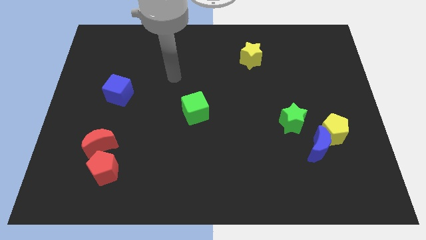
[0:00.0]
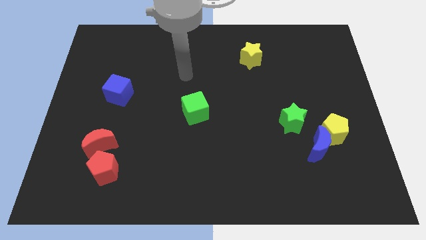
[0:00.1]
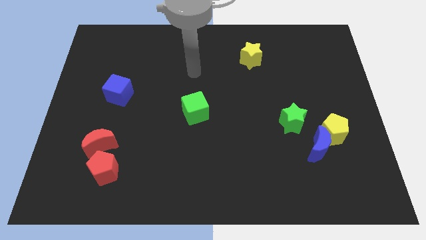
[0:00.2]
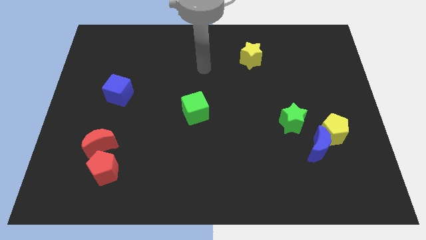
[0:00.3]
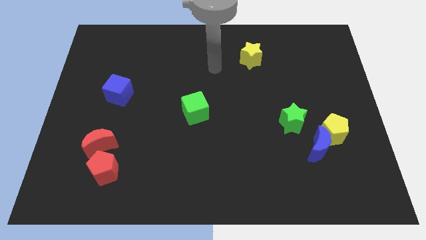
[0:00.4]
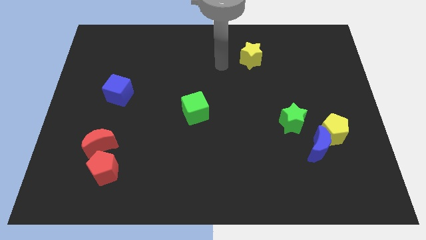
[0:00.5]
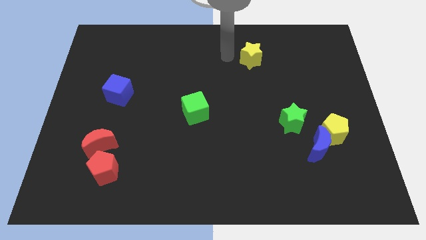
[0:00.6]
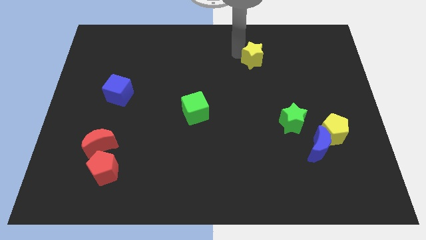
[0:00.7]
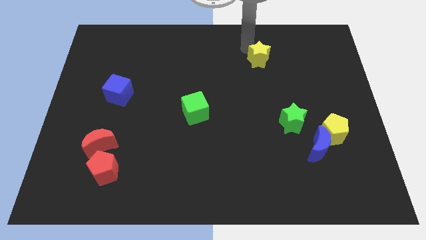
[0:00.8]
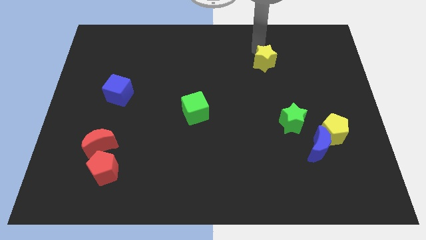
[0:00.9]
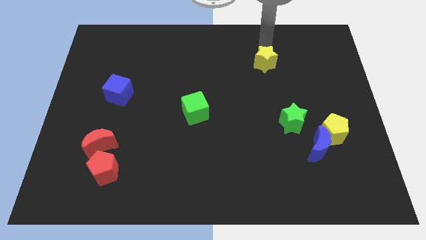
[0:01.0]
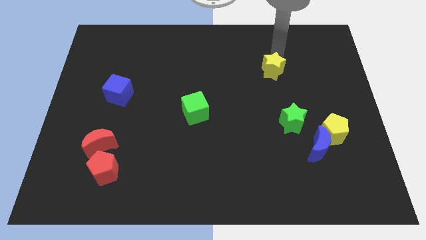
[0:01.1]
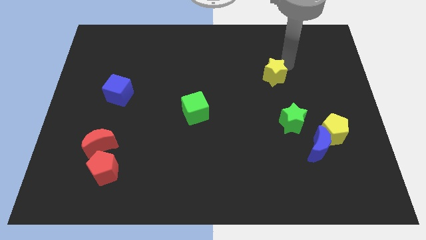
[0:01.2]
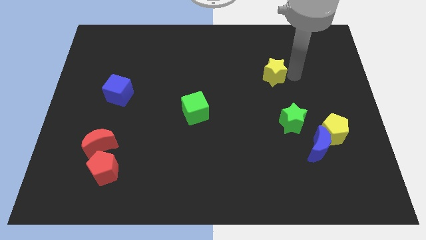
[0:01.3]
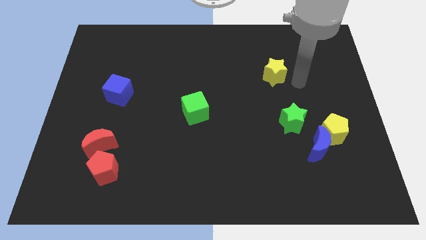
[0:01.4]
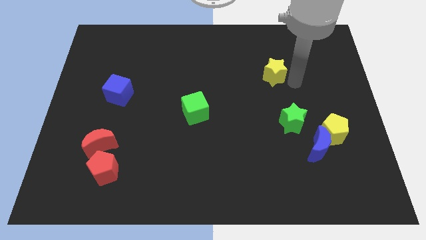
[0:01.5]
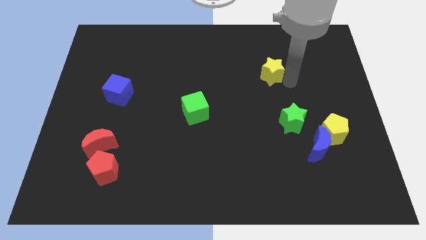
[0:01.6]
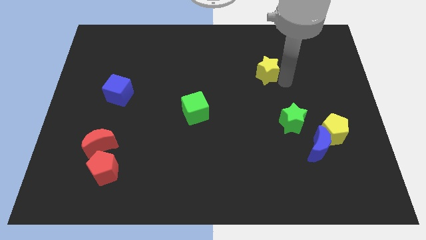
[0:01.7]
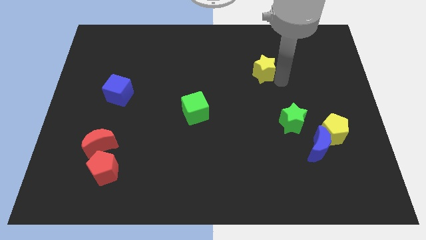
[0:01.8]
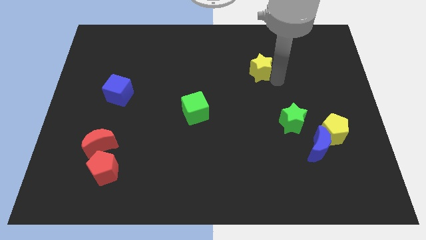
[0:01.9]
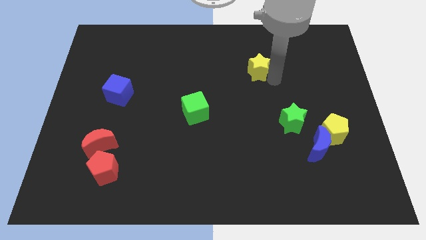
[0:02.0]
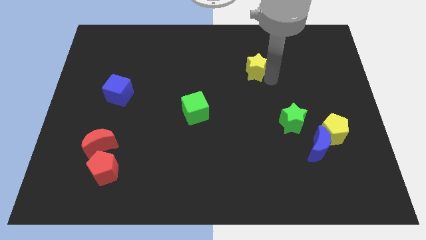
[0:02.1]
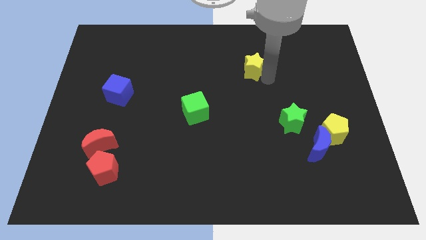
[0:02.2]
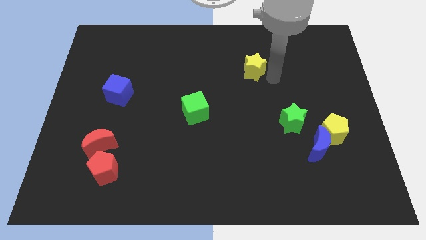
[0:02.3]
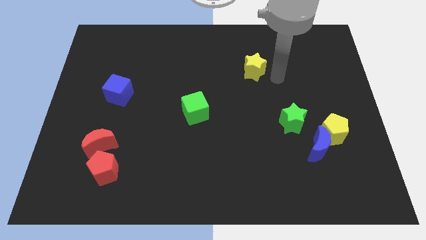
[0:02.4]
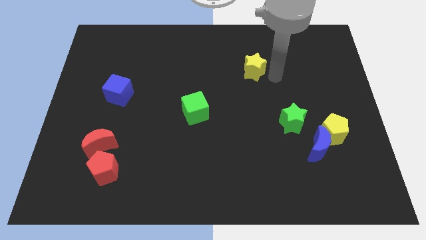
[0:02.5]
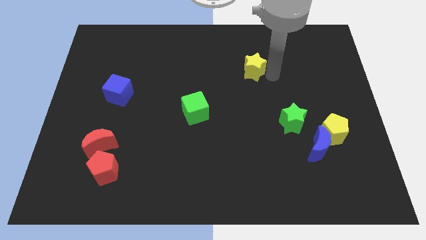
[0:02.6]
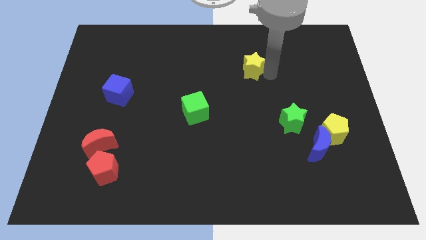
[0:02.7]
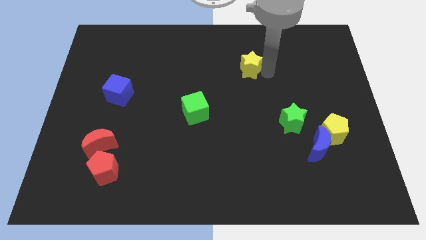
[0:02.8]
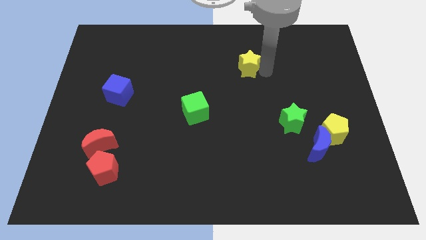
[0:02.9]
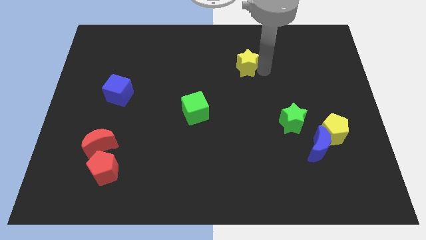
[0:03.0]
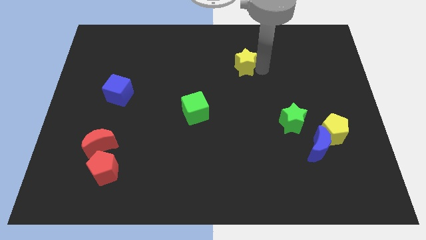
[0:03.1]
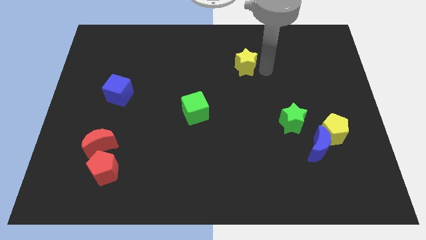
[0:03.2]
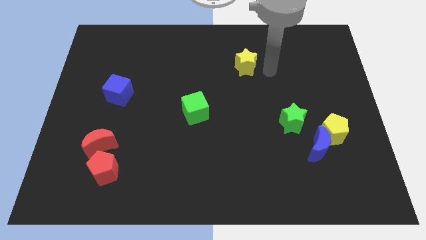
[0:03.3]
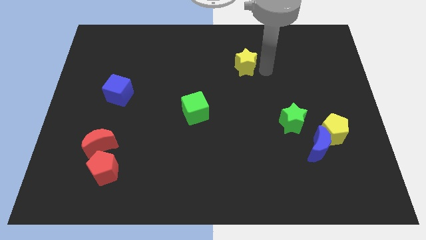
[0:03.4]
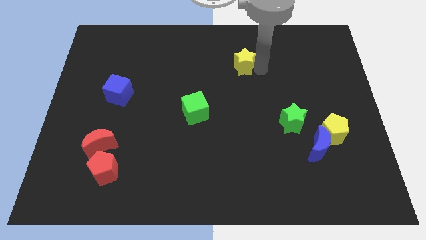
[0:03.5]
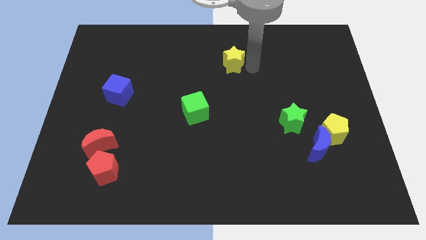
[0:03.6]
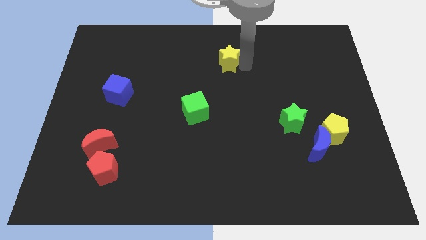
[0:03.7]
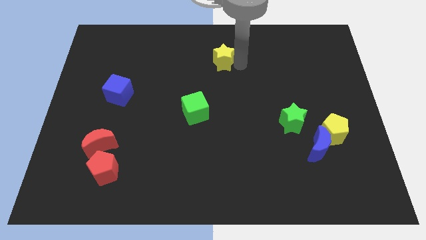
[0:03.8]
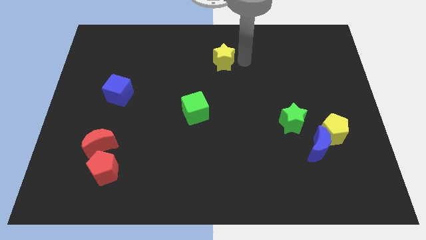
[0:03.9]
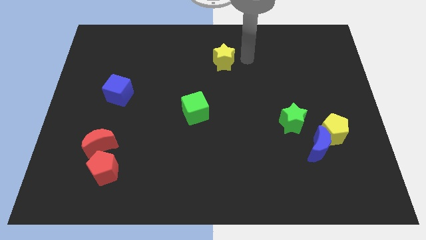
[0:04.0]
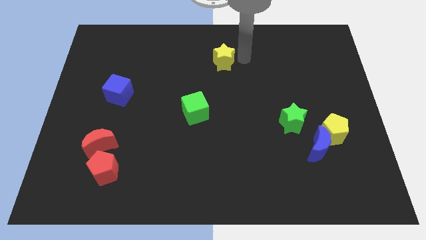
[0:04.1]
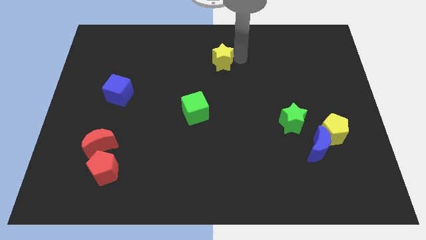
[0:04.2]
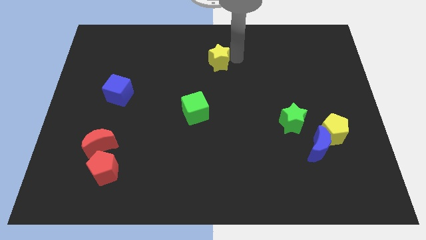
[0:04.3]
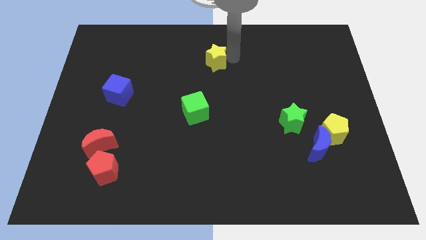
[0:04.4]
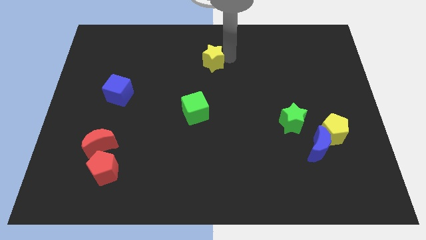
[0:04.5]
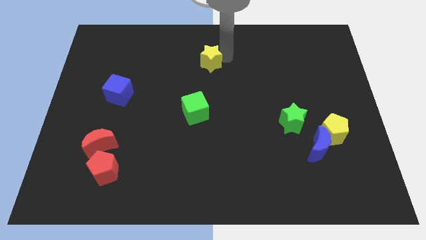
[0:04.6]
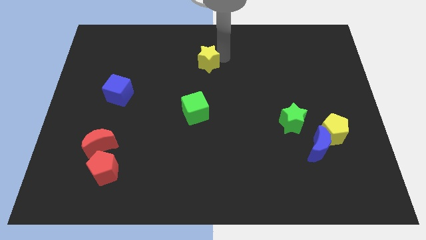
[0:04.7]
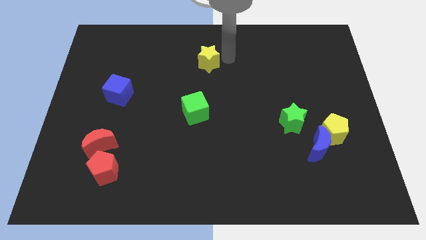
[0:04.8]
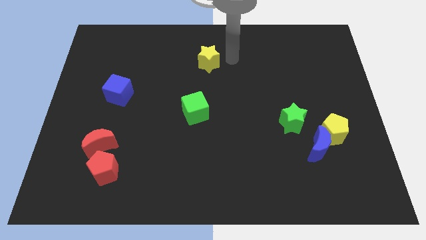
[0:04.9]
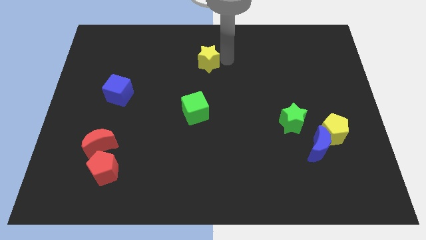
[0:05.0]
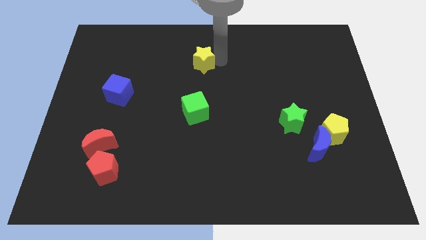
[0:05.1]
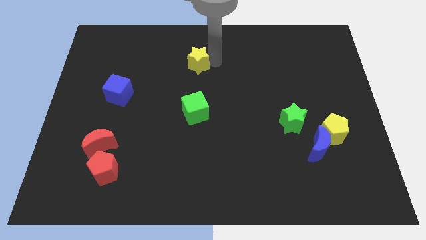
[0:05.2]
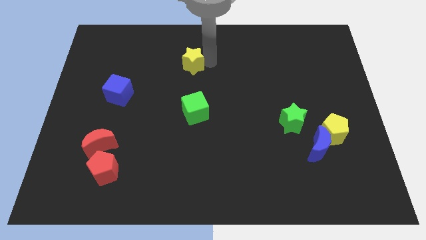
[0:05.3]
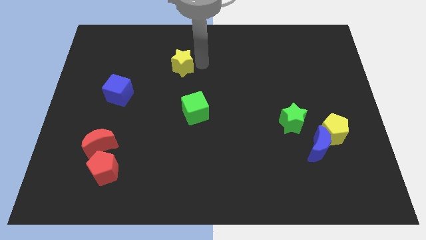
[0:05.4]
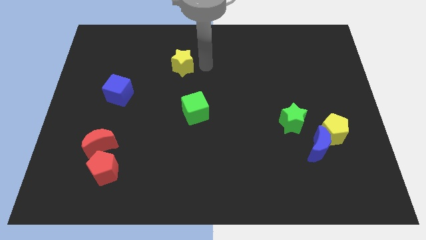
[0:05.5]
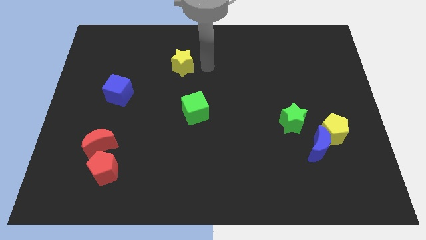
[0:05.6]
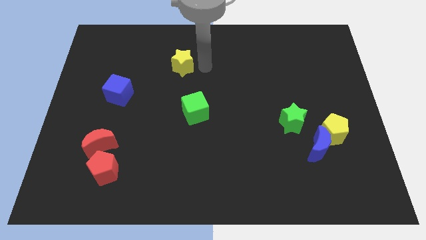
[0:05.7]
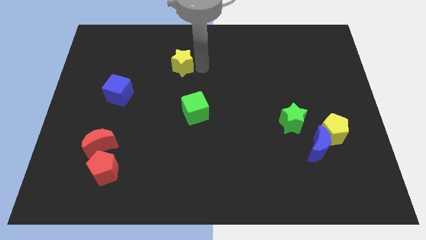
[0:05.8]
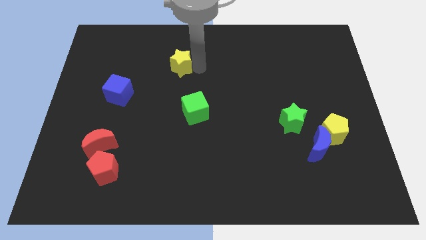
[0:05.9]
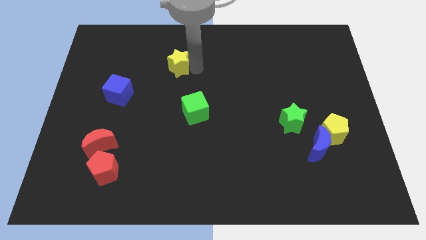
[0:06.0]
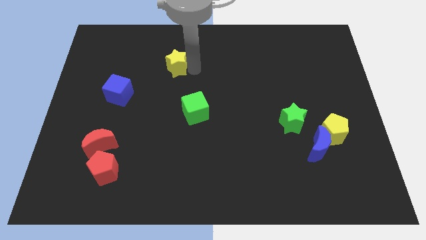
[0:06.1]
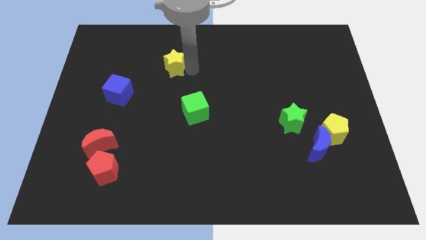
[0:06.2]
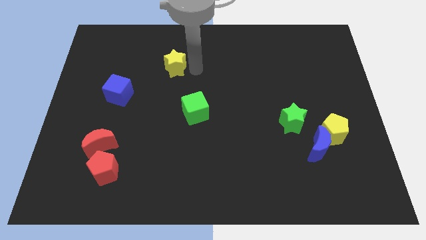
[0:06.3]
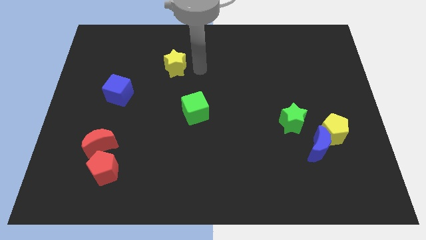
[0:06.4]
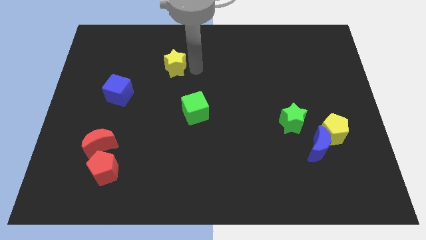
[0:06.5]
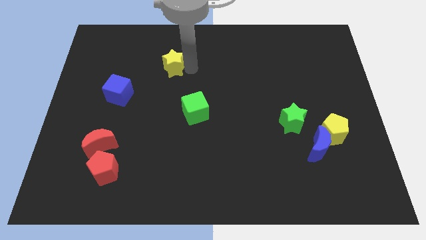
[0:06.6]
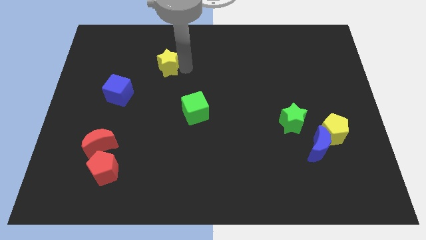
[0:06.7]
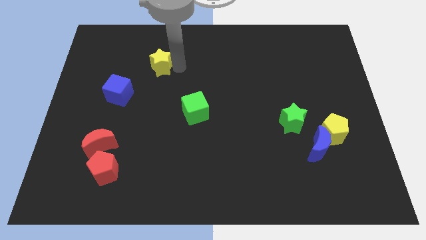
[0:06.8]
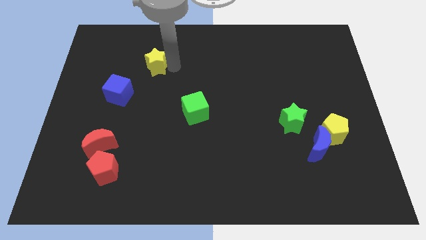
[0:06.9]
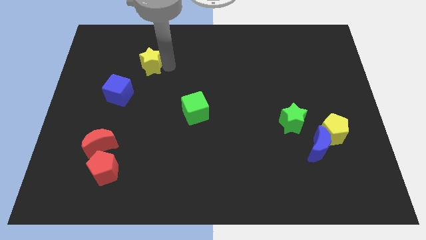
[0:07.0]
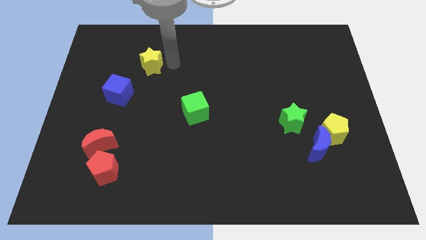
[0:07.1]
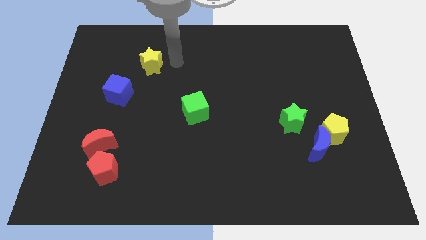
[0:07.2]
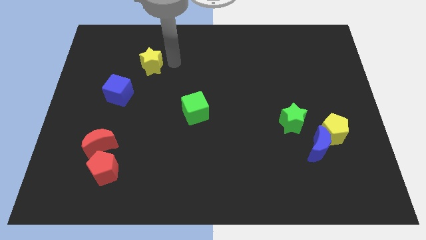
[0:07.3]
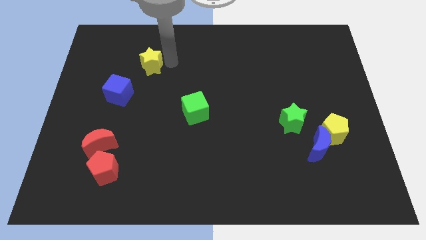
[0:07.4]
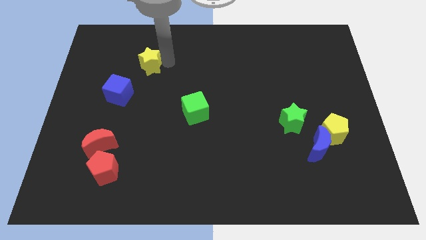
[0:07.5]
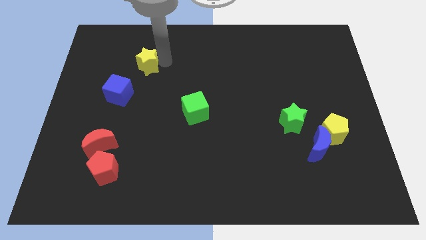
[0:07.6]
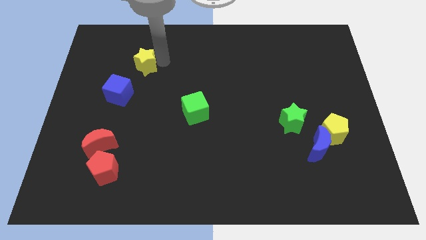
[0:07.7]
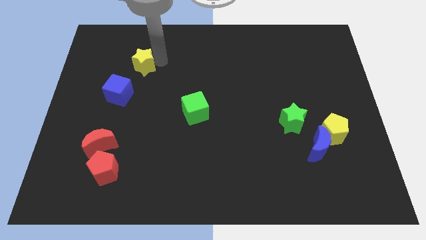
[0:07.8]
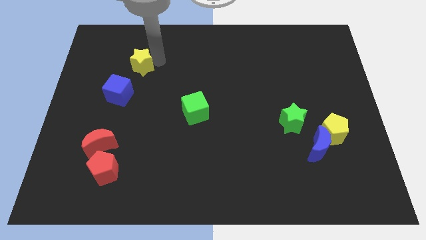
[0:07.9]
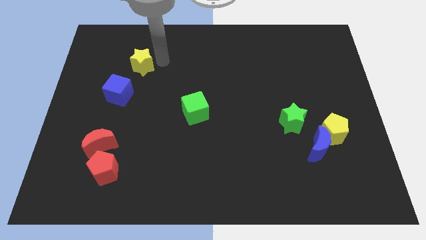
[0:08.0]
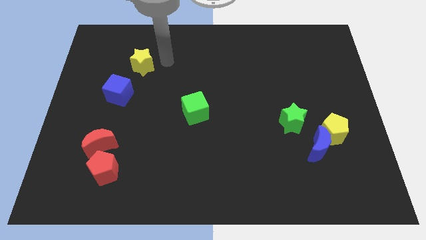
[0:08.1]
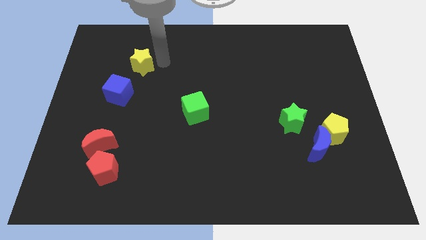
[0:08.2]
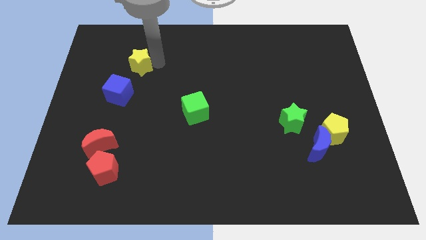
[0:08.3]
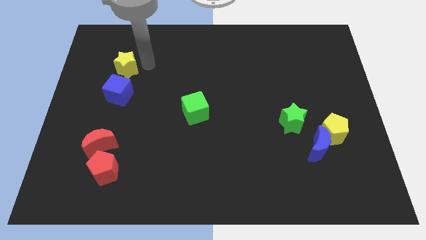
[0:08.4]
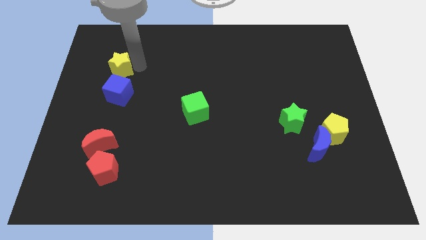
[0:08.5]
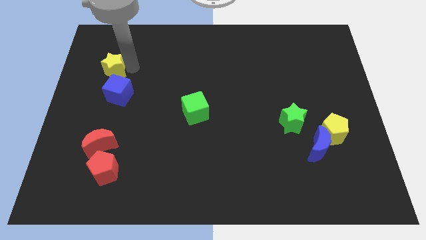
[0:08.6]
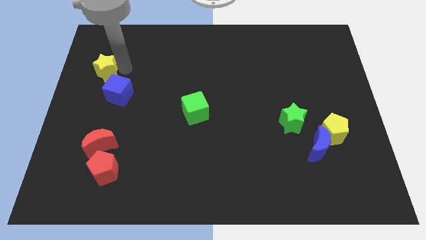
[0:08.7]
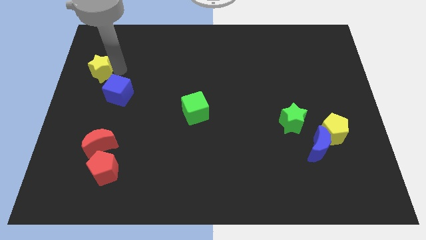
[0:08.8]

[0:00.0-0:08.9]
push the yellow star to the left side of the board
